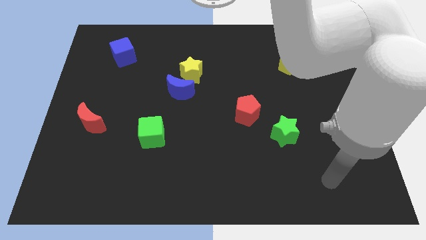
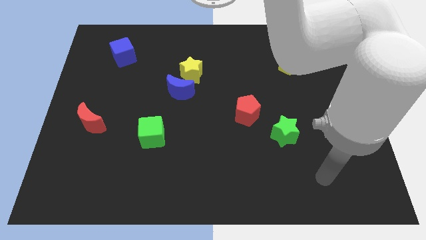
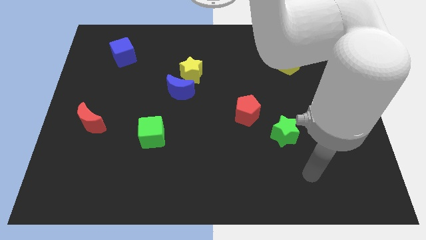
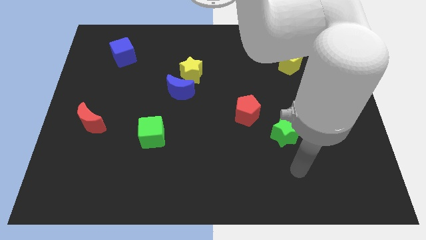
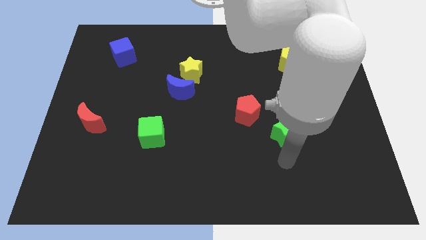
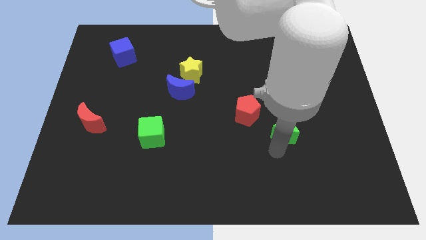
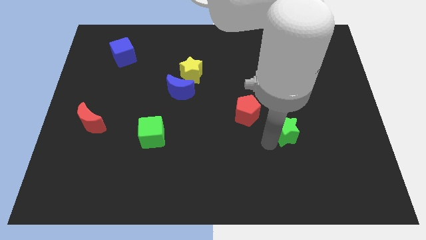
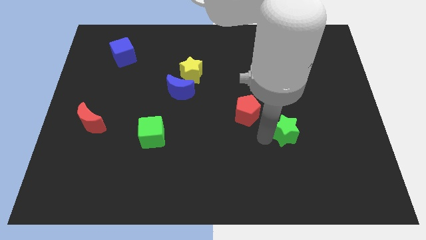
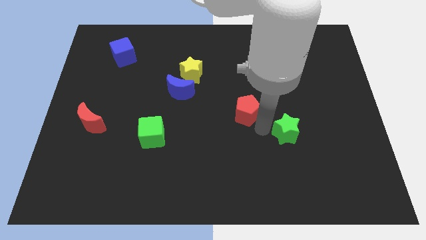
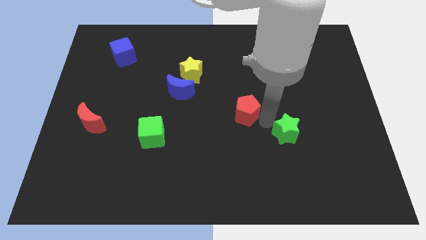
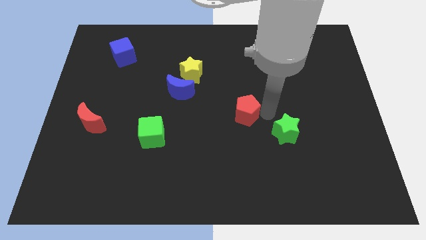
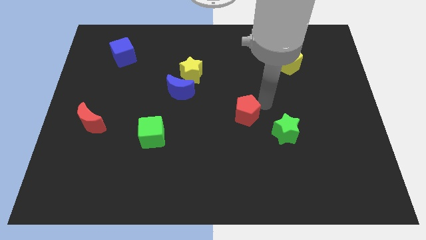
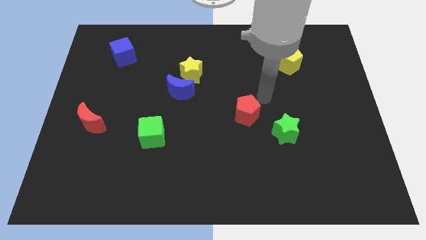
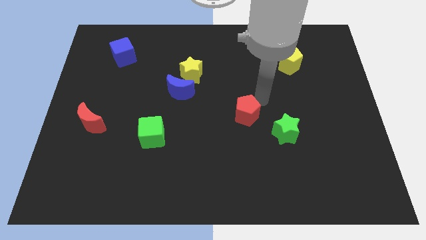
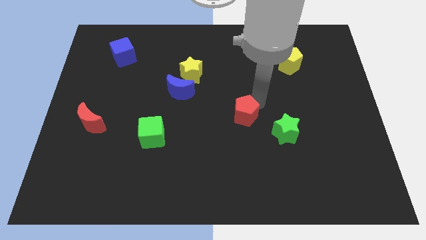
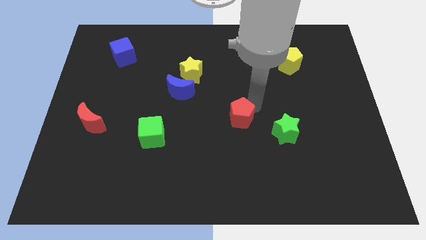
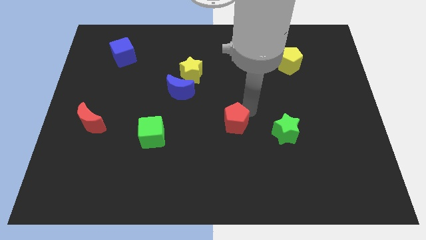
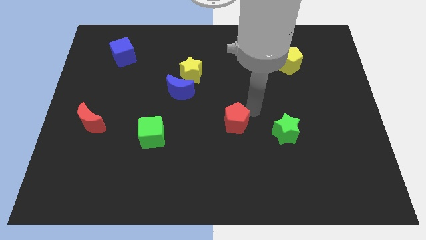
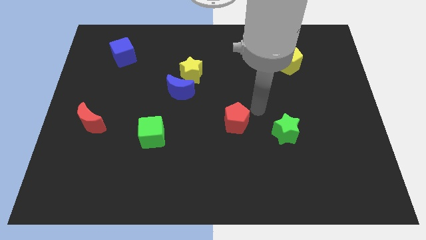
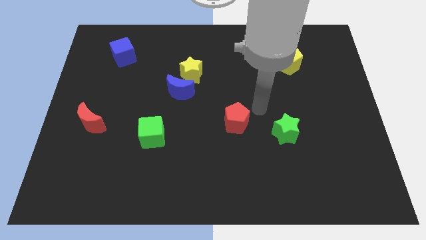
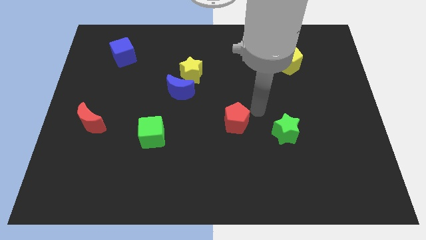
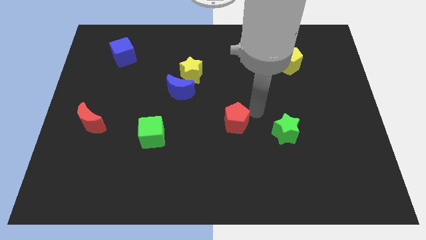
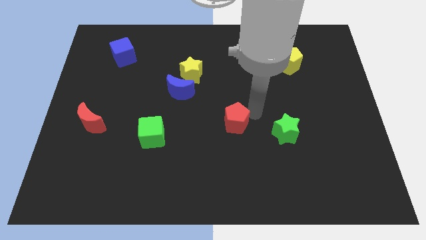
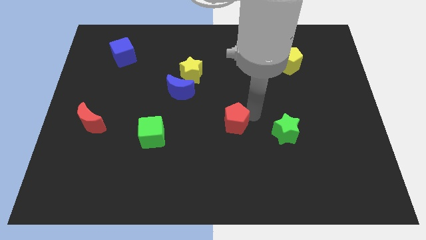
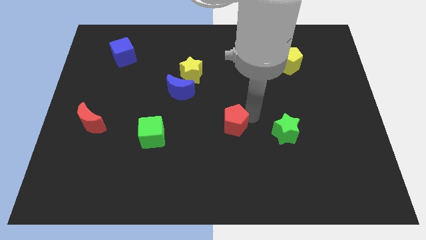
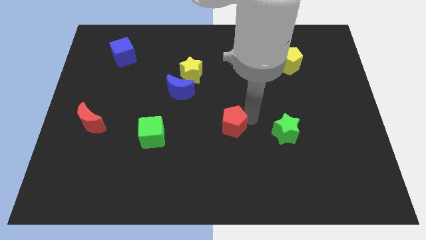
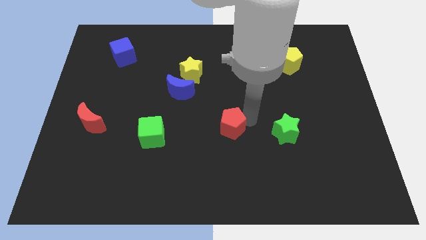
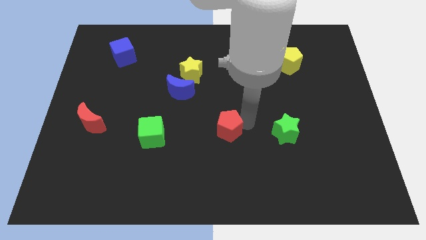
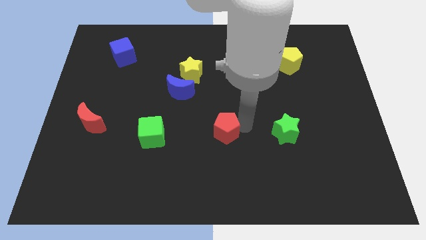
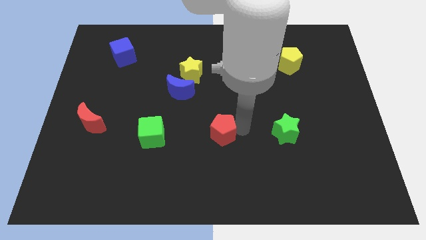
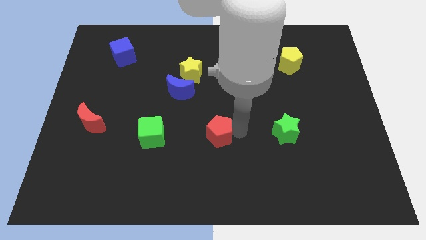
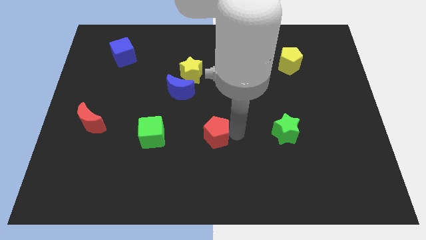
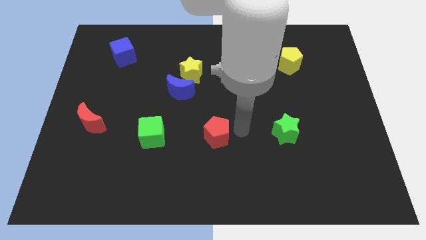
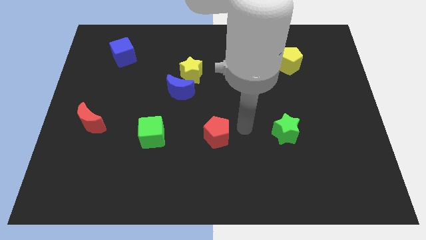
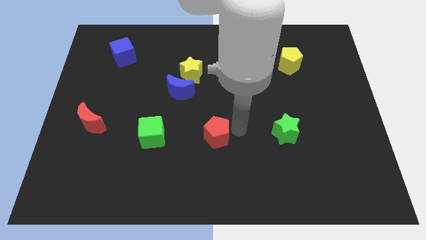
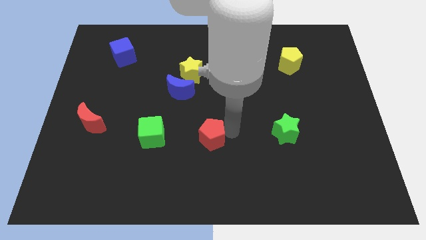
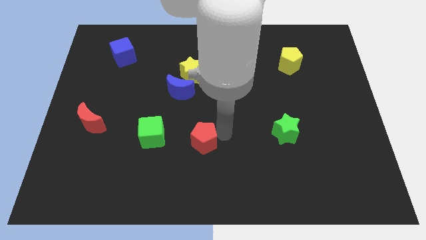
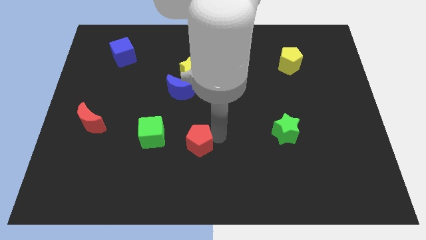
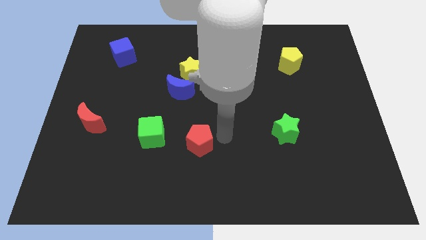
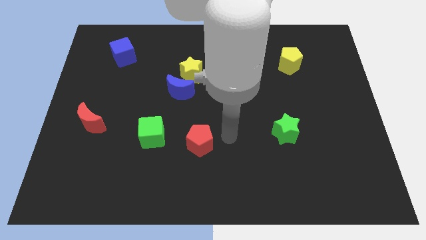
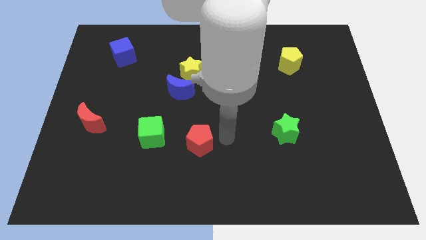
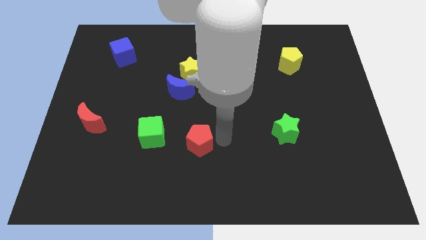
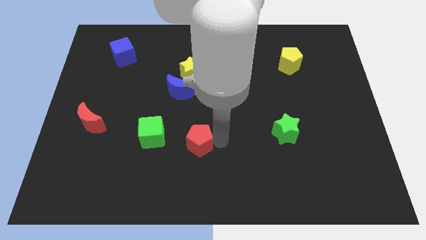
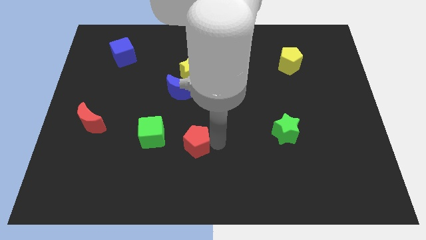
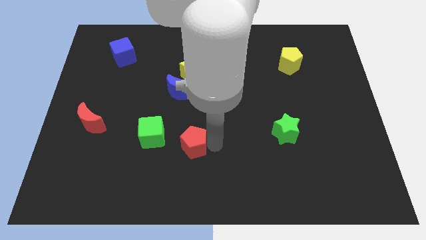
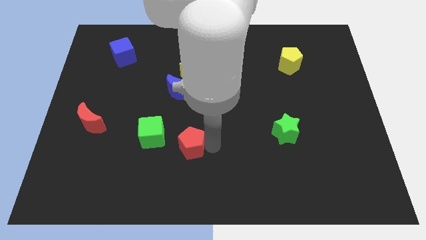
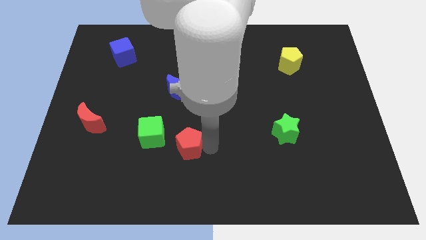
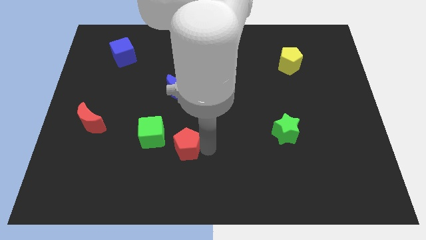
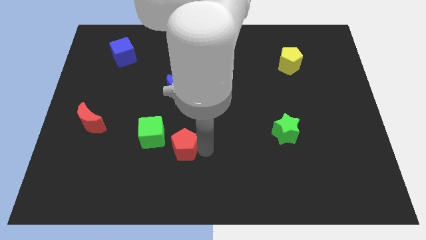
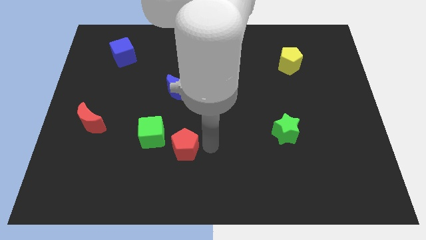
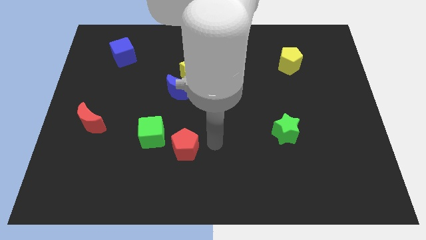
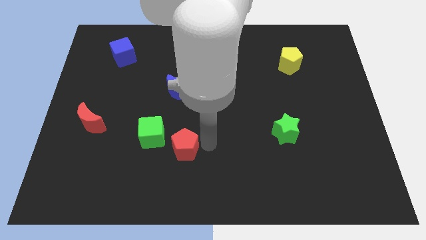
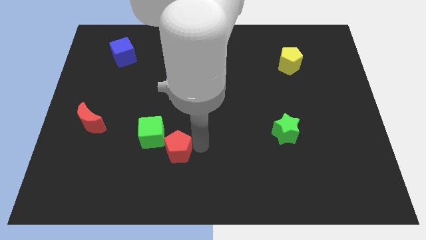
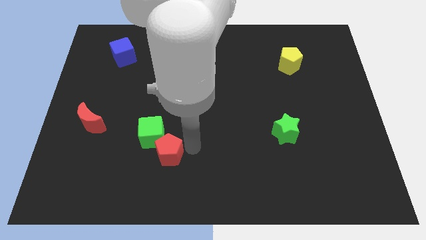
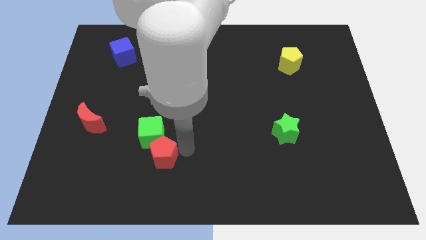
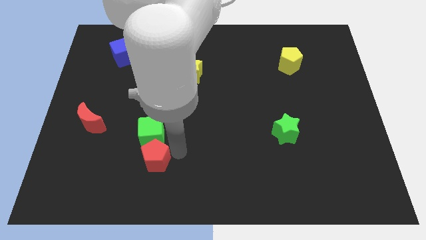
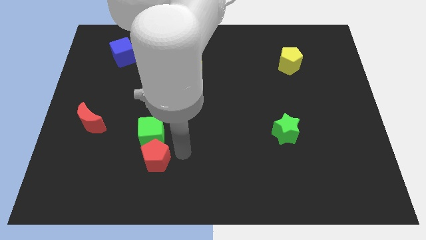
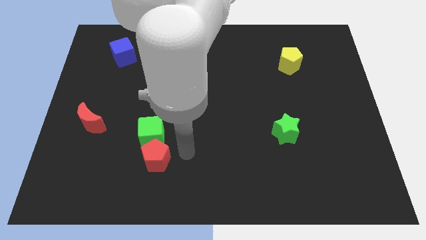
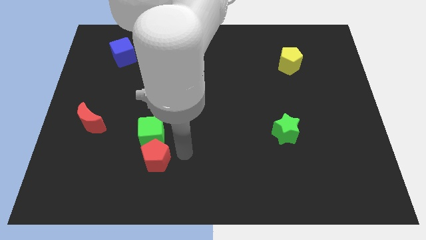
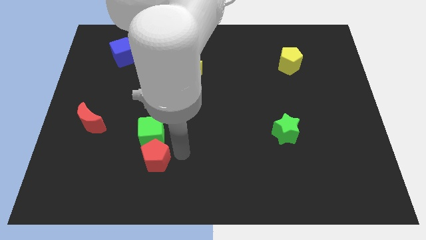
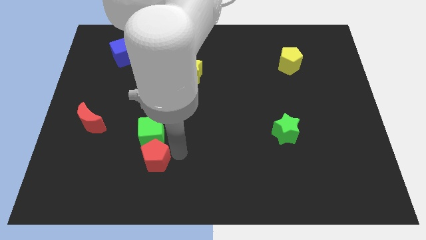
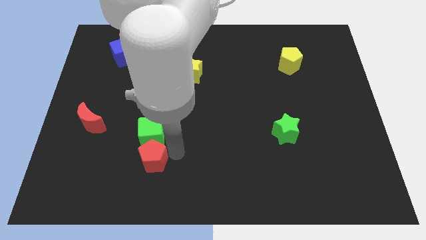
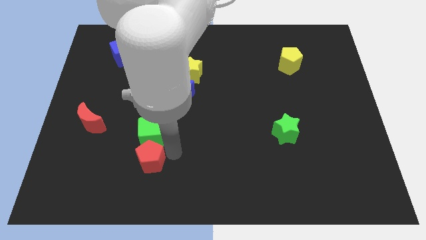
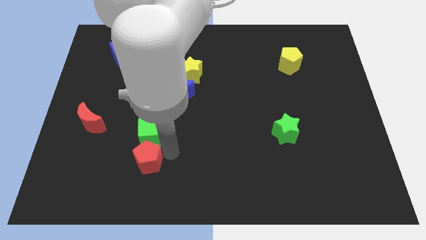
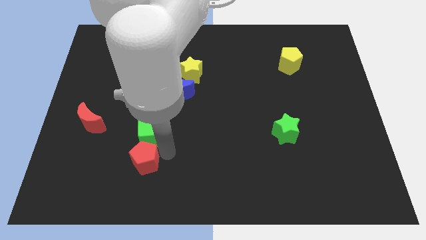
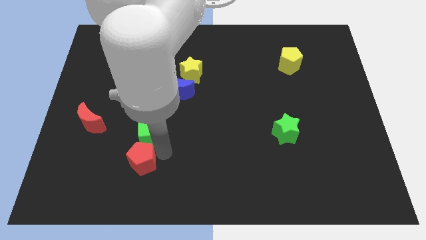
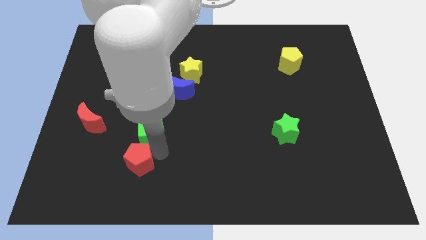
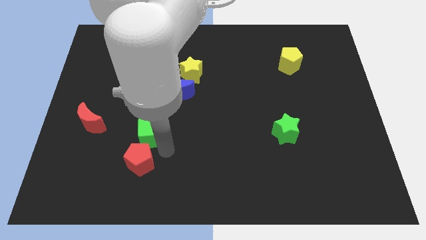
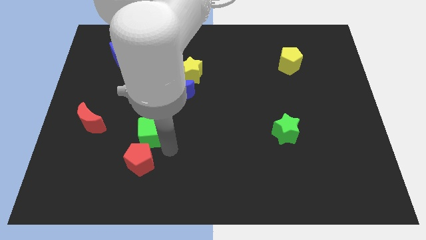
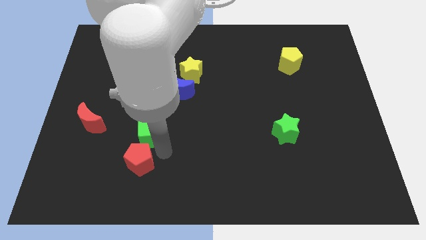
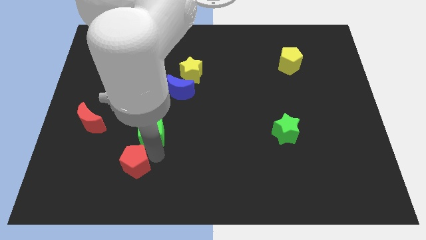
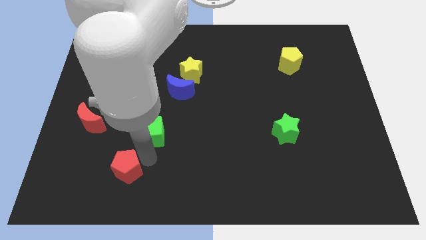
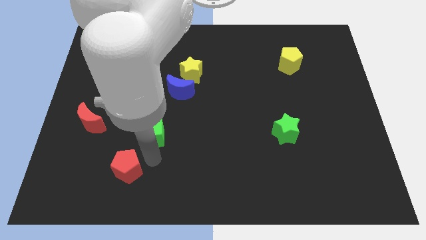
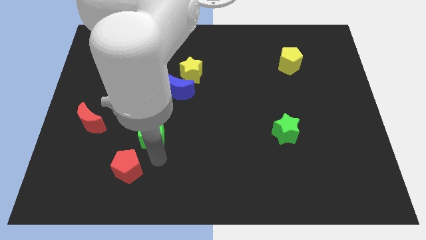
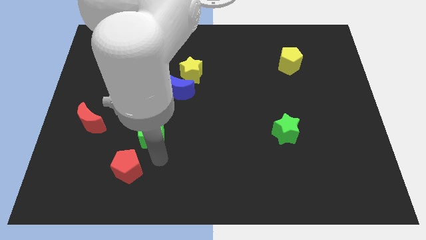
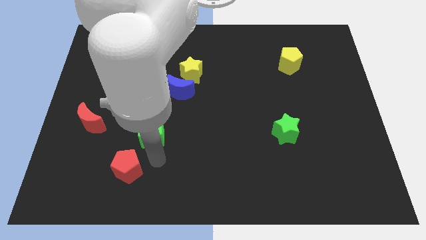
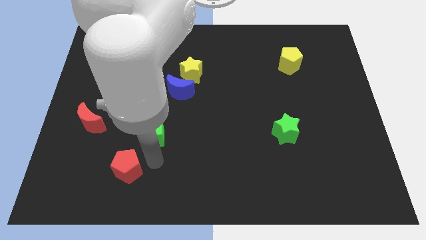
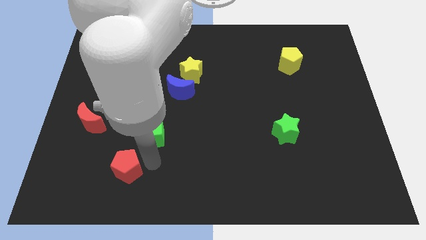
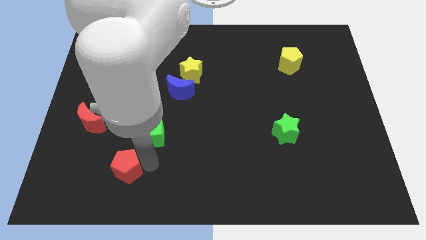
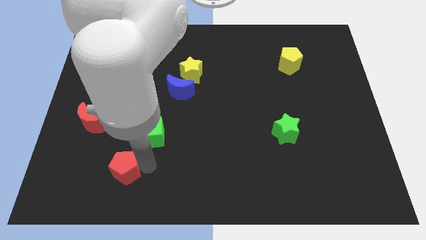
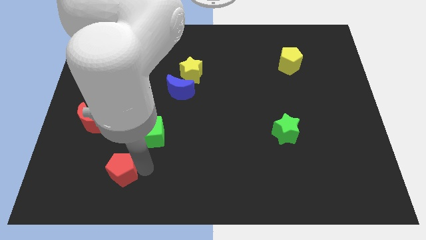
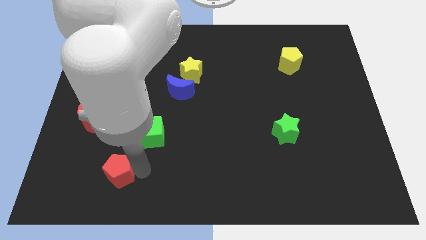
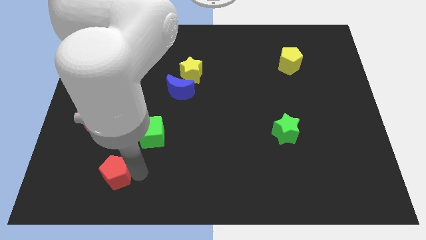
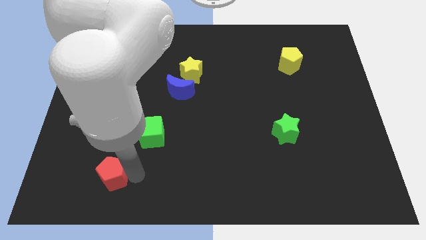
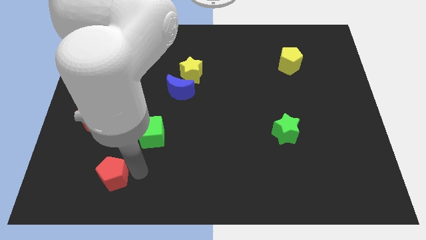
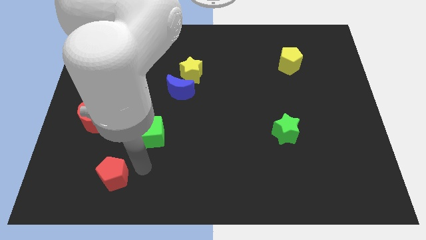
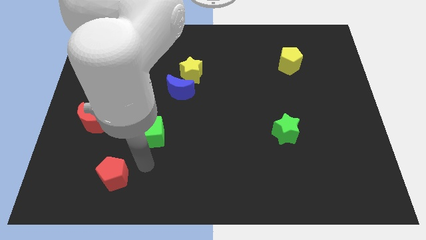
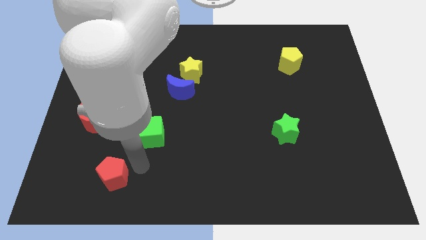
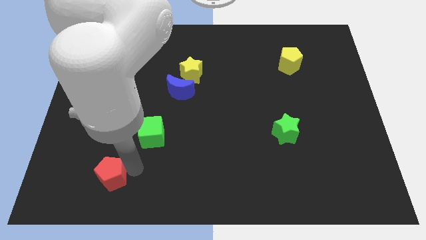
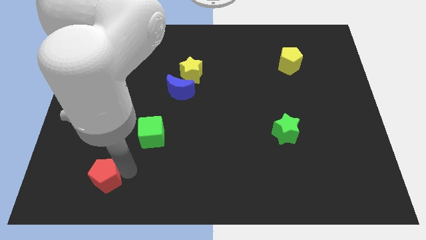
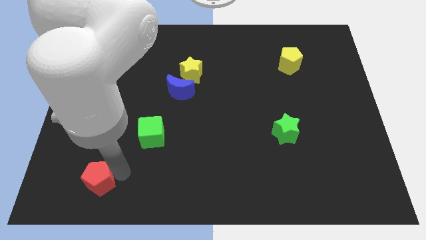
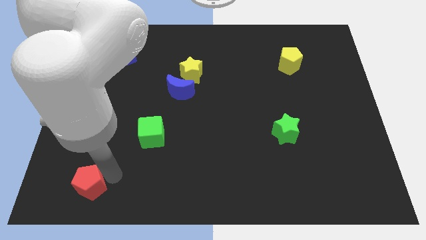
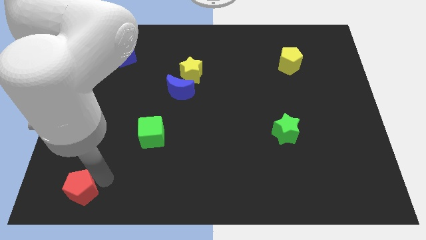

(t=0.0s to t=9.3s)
push the red pentagon to the lower left corner
